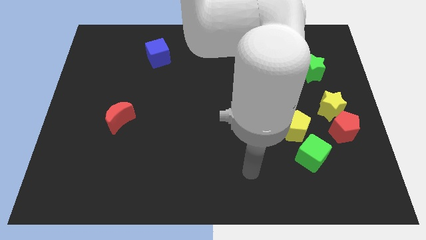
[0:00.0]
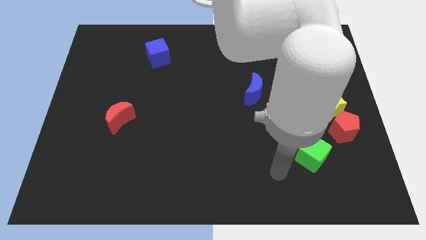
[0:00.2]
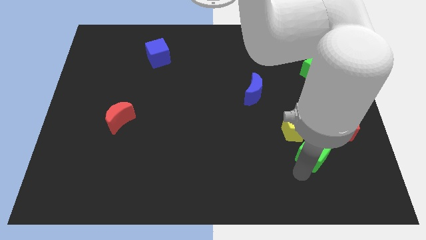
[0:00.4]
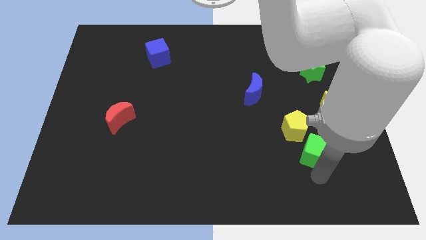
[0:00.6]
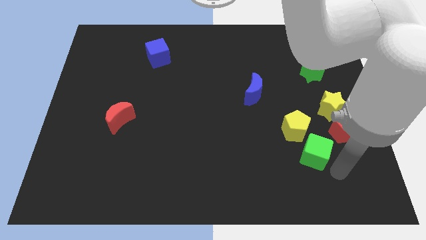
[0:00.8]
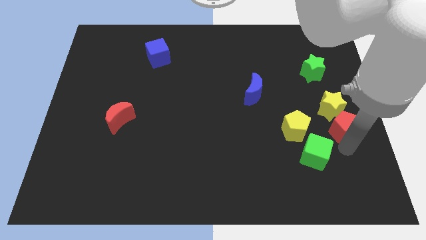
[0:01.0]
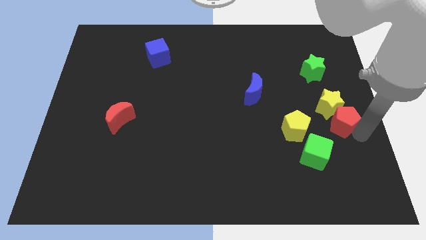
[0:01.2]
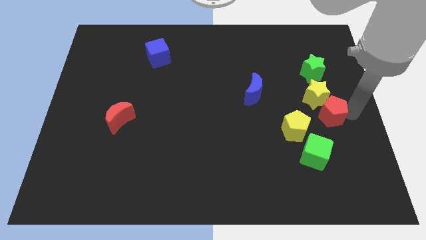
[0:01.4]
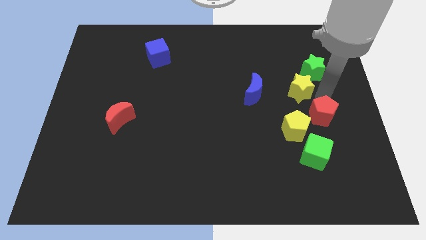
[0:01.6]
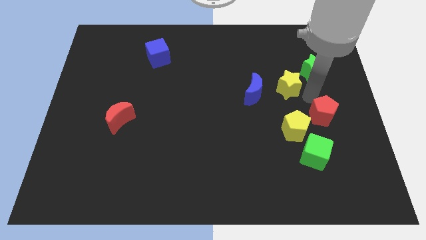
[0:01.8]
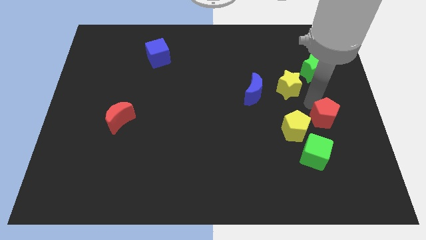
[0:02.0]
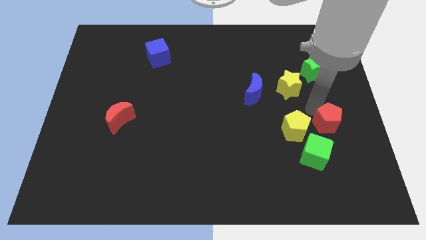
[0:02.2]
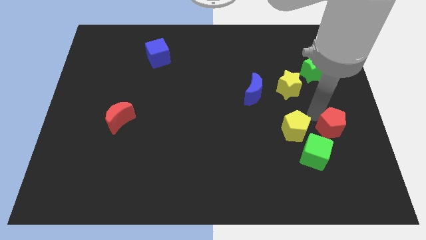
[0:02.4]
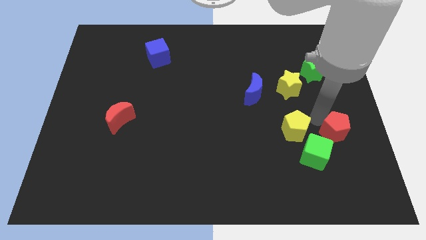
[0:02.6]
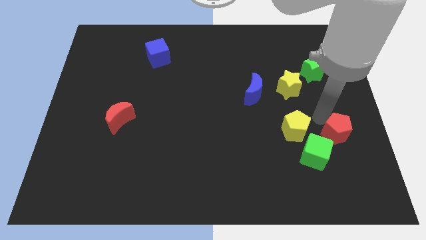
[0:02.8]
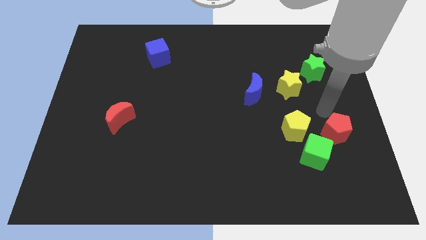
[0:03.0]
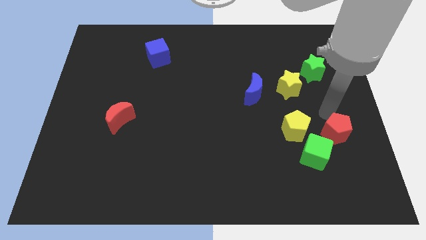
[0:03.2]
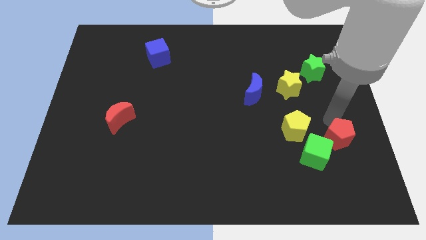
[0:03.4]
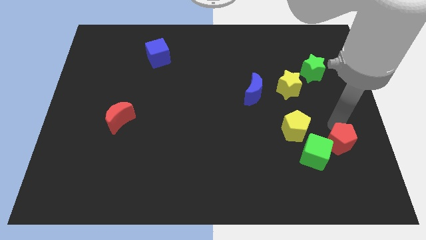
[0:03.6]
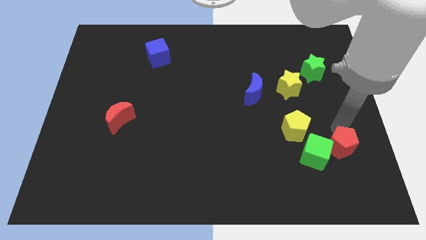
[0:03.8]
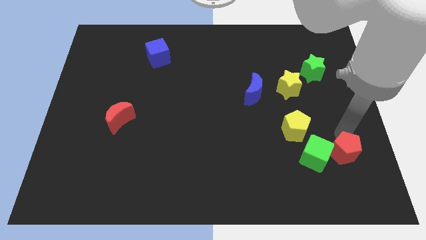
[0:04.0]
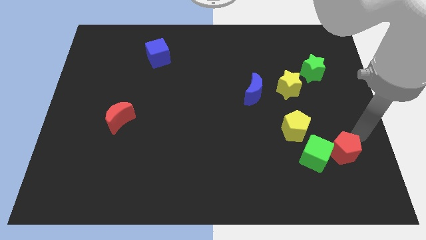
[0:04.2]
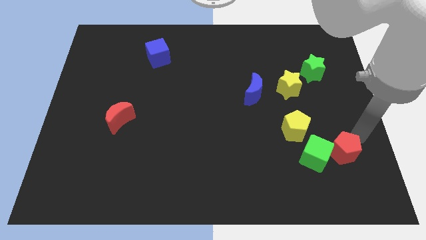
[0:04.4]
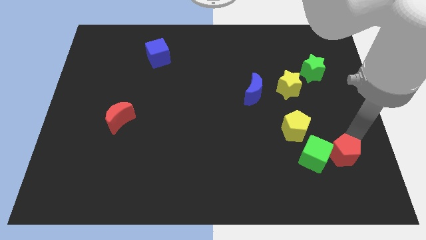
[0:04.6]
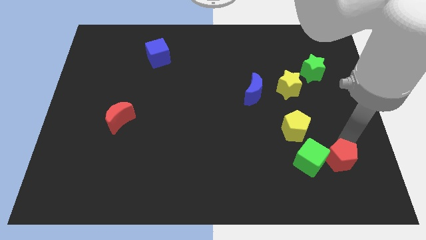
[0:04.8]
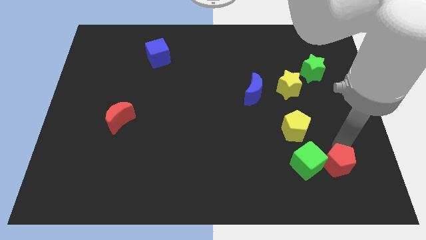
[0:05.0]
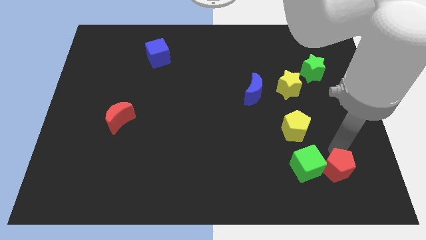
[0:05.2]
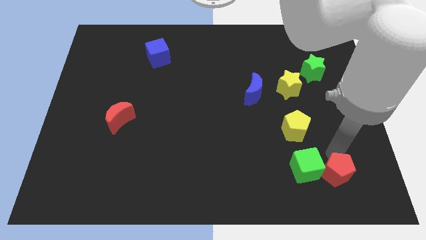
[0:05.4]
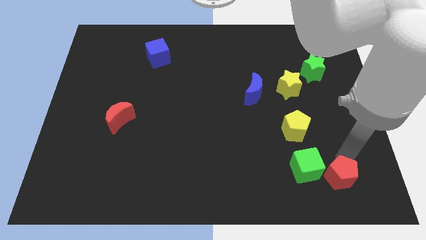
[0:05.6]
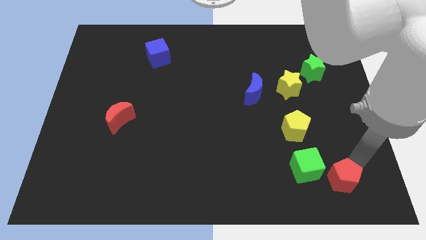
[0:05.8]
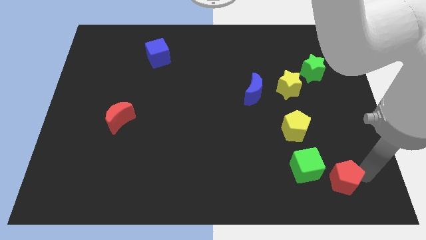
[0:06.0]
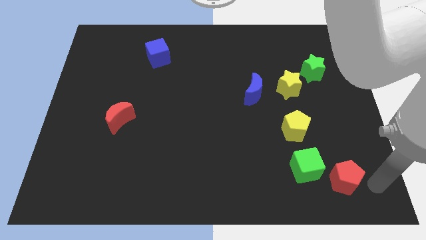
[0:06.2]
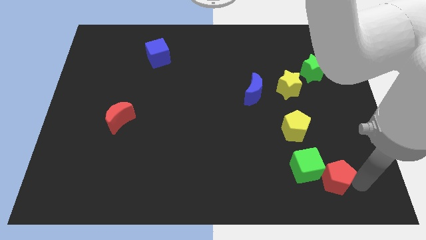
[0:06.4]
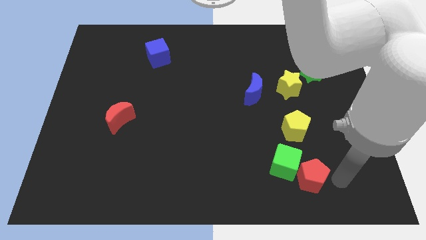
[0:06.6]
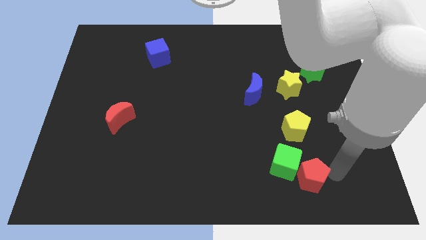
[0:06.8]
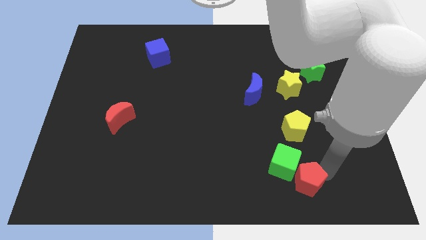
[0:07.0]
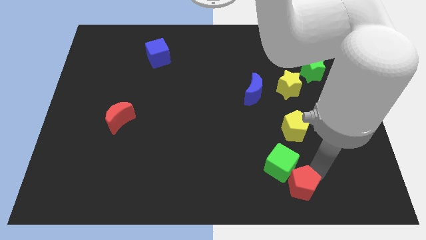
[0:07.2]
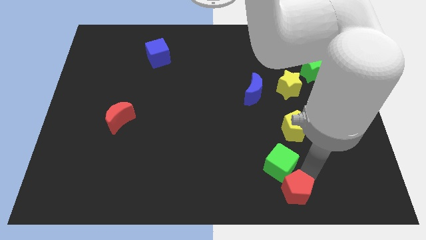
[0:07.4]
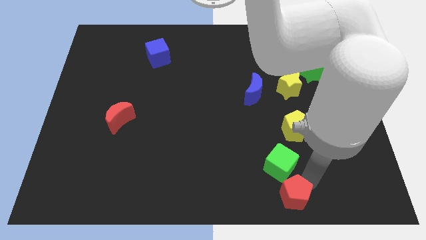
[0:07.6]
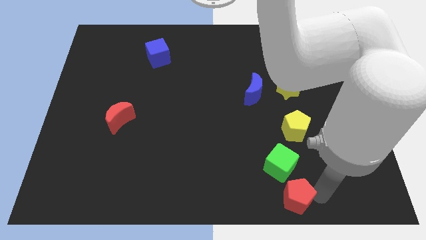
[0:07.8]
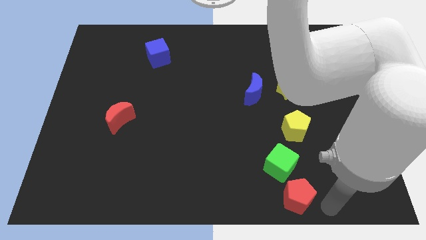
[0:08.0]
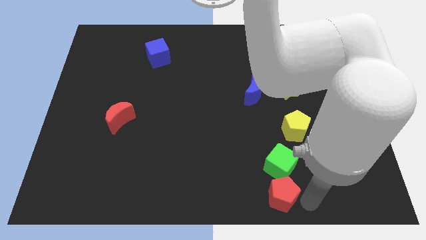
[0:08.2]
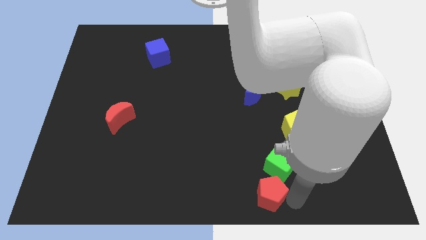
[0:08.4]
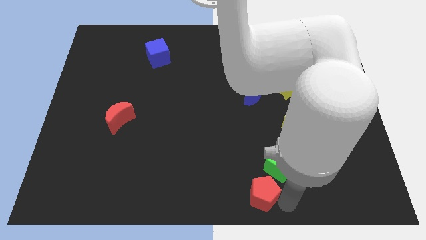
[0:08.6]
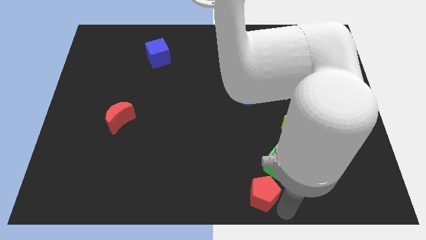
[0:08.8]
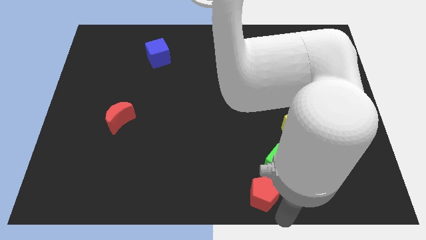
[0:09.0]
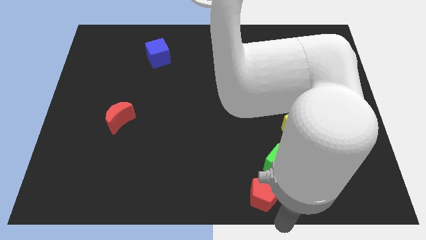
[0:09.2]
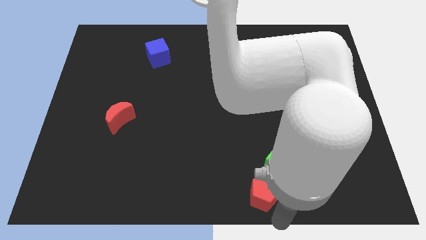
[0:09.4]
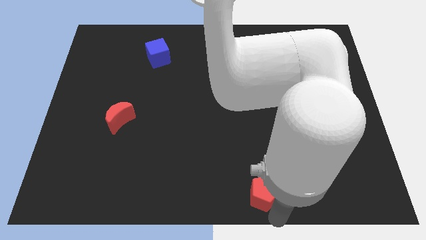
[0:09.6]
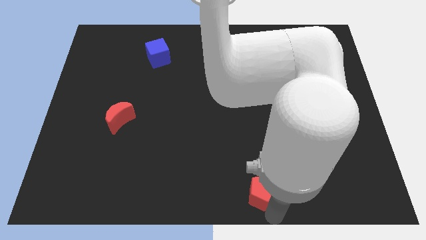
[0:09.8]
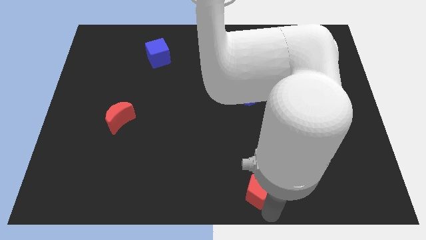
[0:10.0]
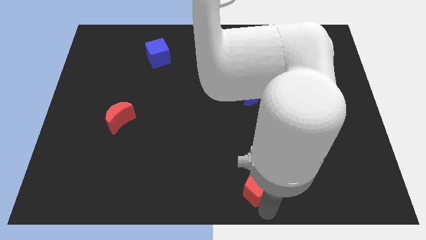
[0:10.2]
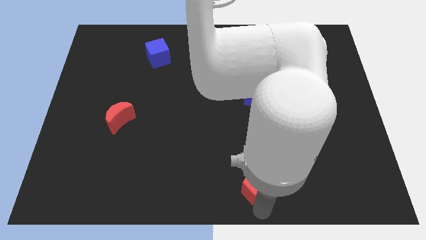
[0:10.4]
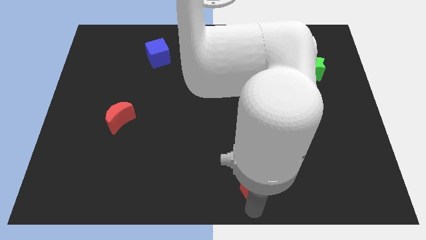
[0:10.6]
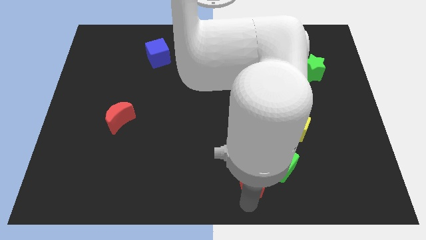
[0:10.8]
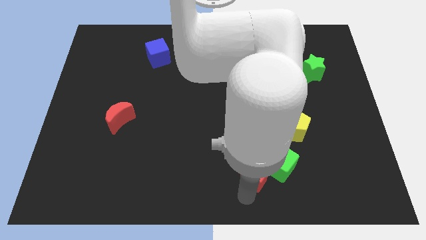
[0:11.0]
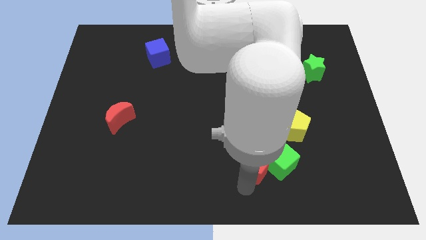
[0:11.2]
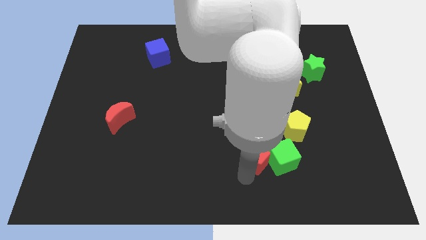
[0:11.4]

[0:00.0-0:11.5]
move the red pentagon to the bottom left side of the green cube

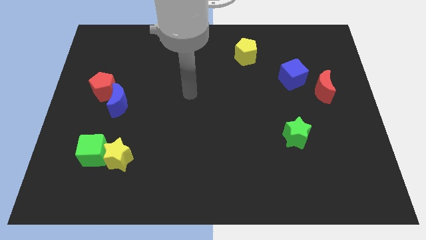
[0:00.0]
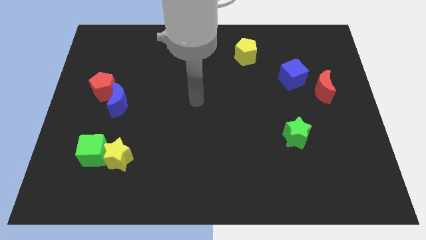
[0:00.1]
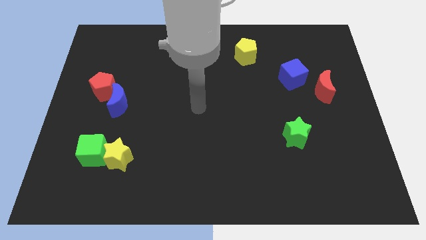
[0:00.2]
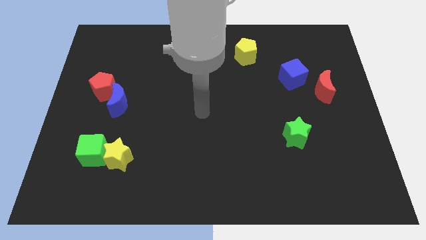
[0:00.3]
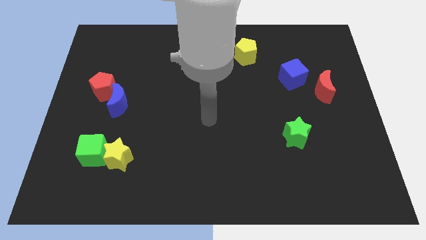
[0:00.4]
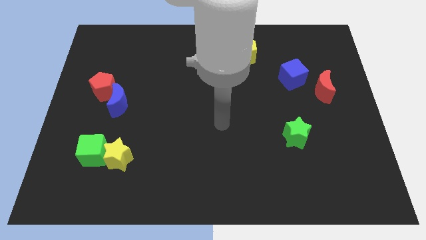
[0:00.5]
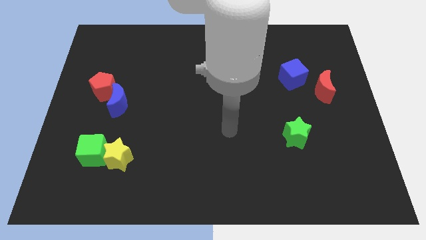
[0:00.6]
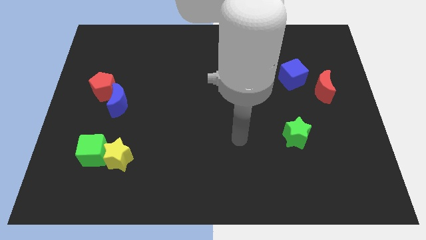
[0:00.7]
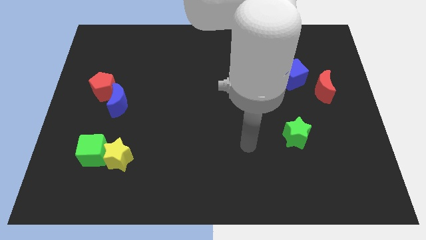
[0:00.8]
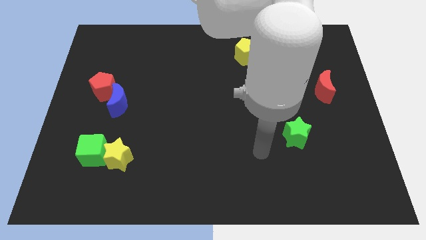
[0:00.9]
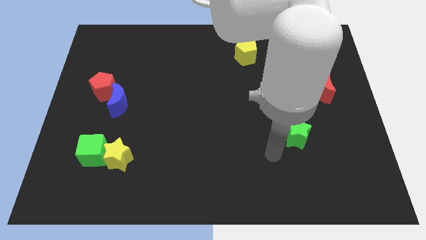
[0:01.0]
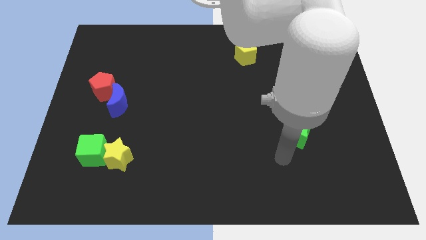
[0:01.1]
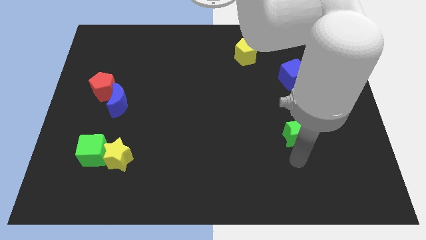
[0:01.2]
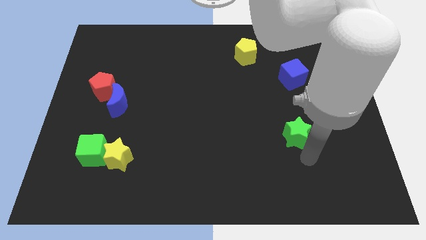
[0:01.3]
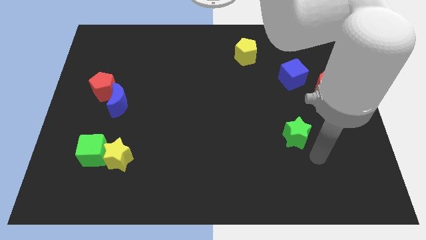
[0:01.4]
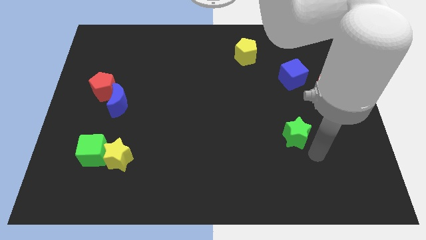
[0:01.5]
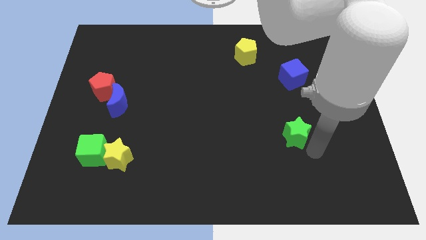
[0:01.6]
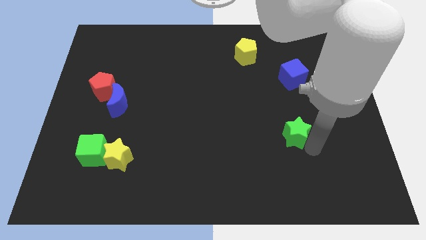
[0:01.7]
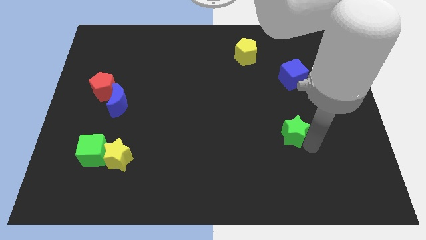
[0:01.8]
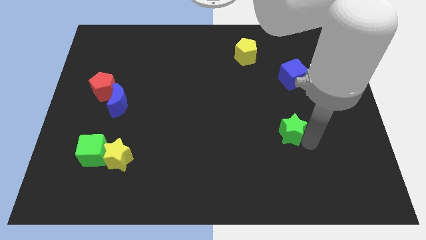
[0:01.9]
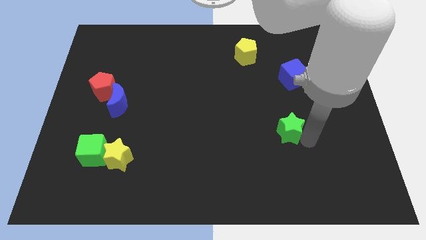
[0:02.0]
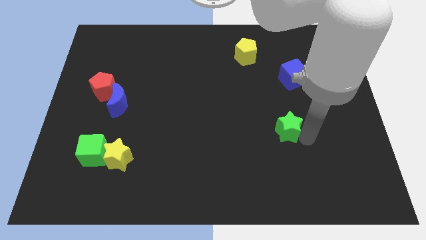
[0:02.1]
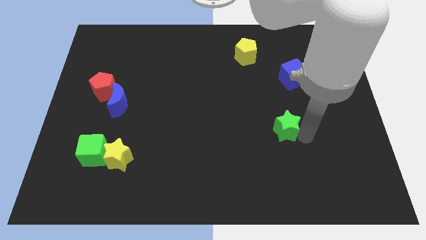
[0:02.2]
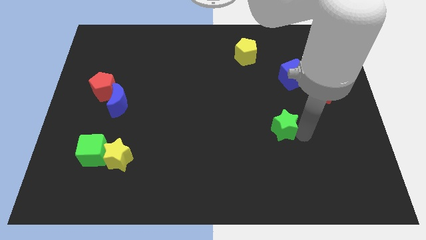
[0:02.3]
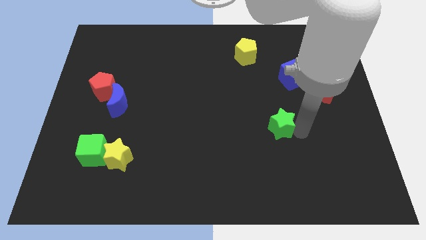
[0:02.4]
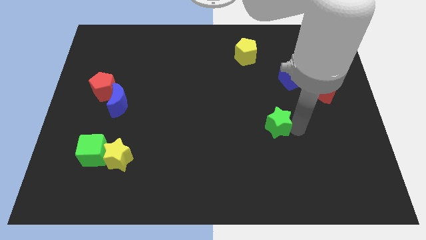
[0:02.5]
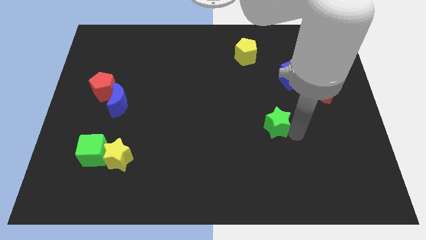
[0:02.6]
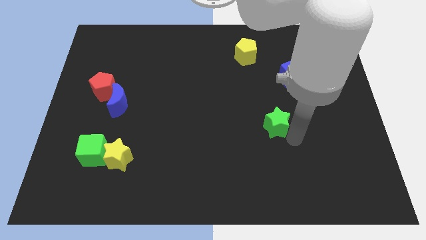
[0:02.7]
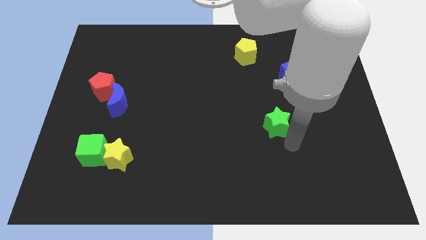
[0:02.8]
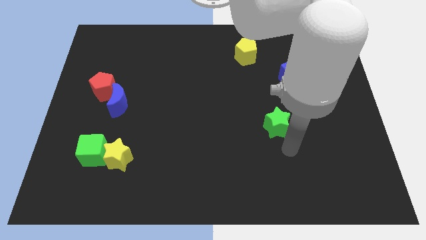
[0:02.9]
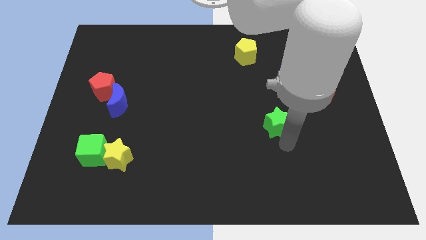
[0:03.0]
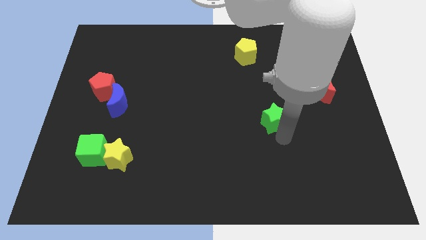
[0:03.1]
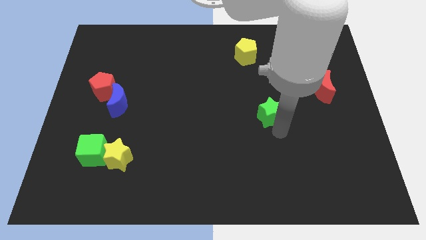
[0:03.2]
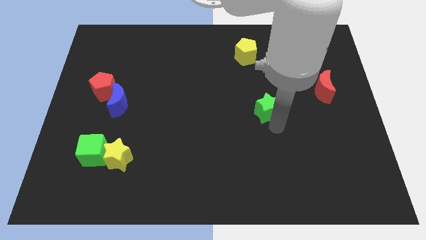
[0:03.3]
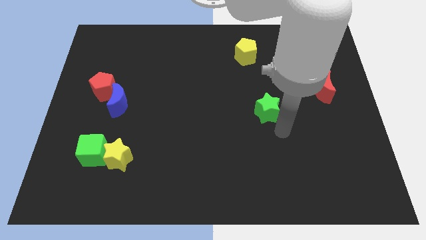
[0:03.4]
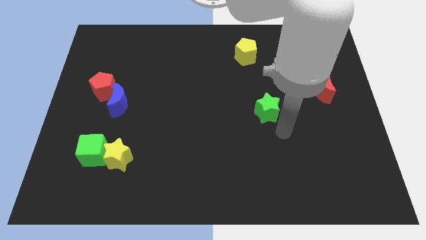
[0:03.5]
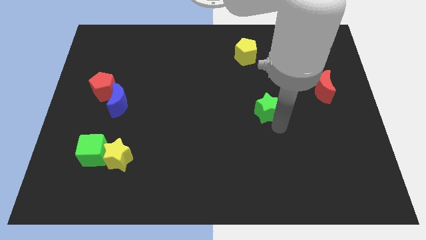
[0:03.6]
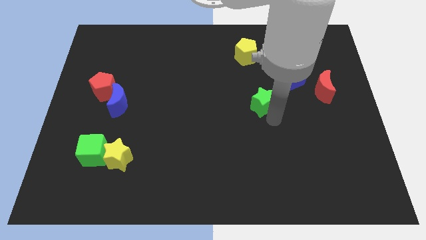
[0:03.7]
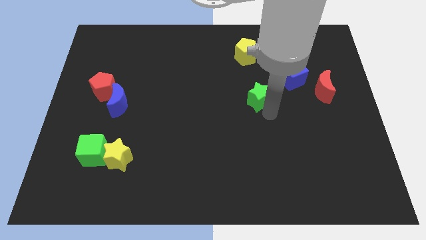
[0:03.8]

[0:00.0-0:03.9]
put the green star to the bottom of the yellow pentagon
